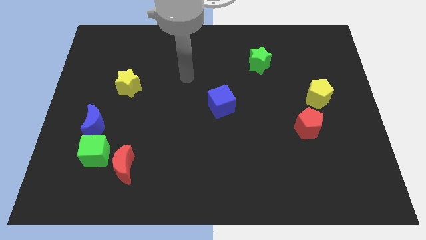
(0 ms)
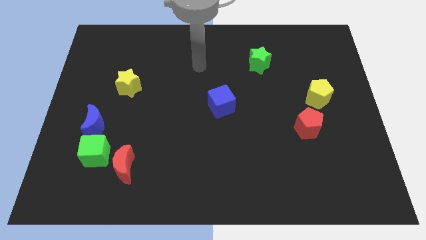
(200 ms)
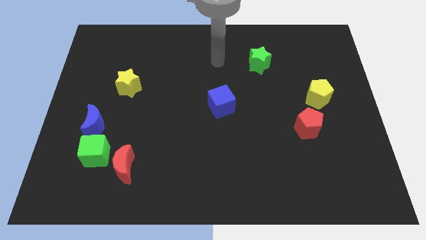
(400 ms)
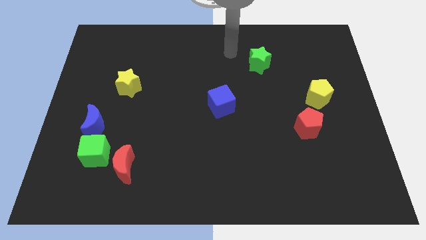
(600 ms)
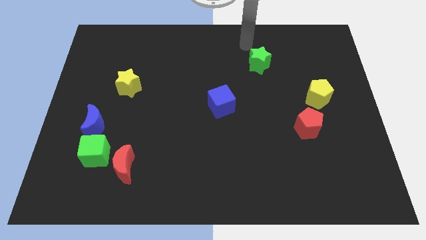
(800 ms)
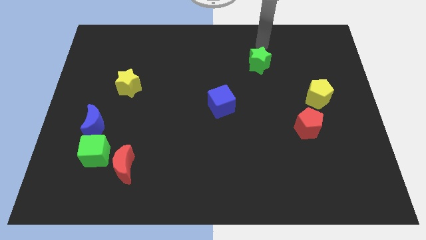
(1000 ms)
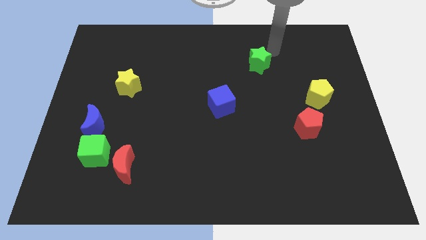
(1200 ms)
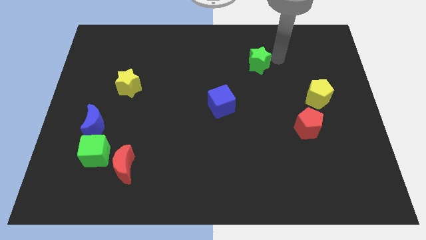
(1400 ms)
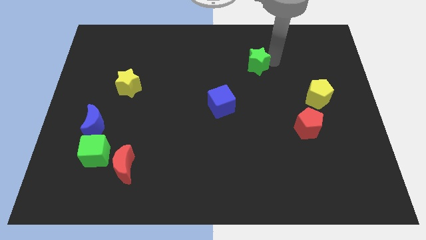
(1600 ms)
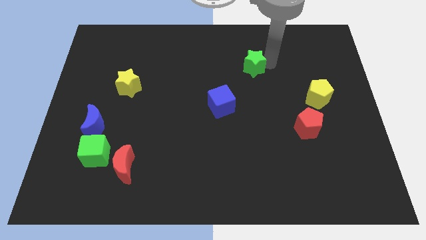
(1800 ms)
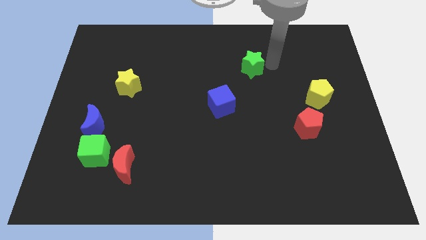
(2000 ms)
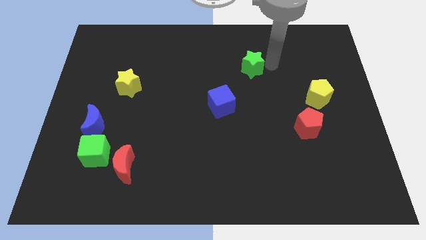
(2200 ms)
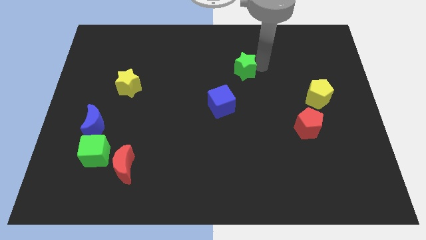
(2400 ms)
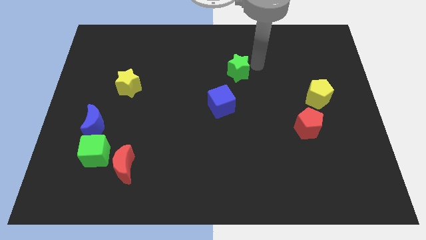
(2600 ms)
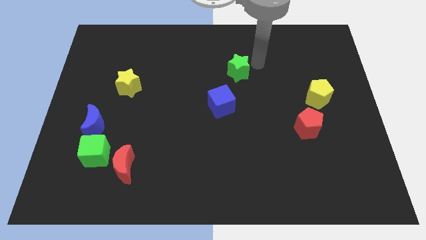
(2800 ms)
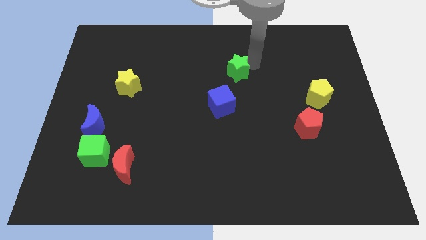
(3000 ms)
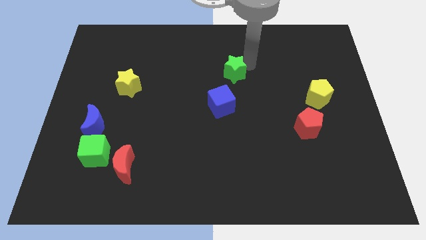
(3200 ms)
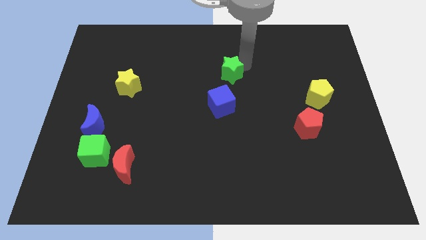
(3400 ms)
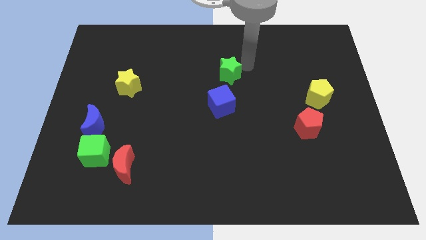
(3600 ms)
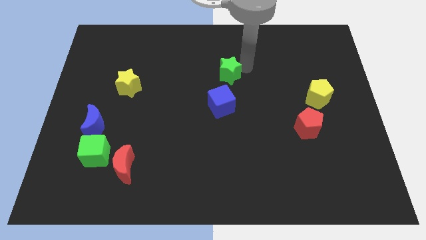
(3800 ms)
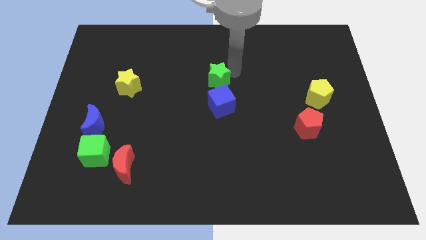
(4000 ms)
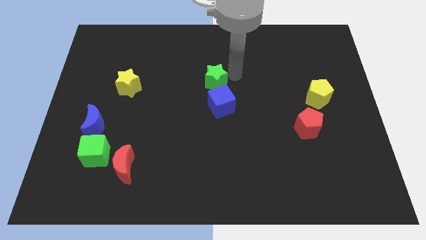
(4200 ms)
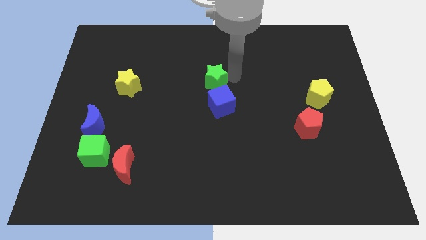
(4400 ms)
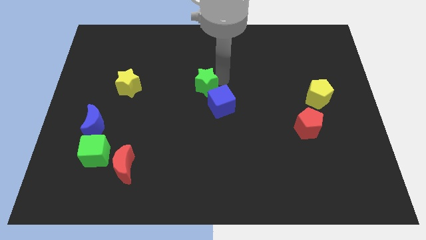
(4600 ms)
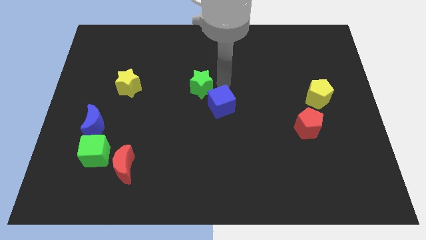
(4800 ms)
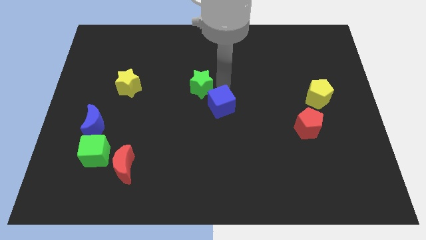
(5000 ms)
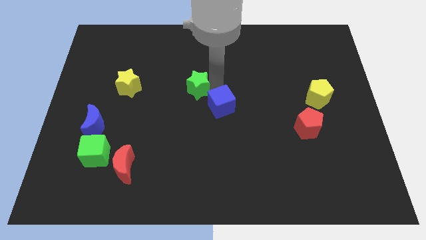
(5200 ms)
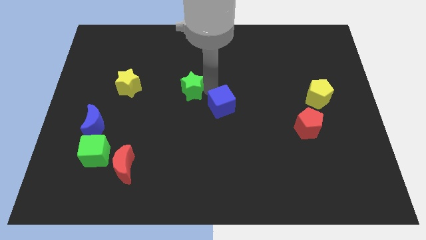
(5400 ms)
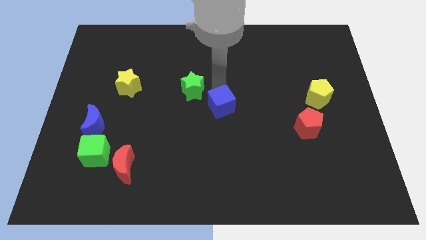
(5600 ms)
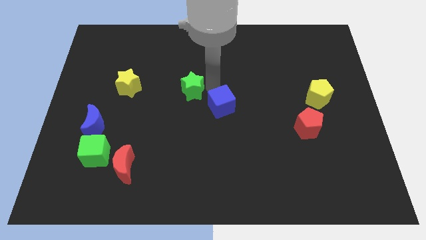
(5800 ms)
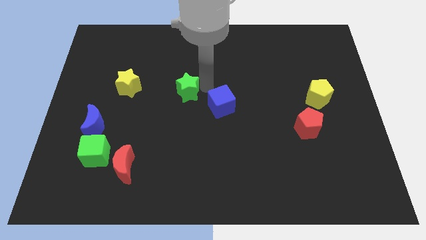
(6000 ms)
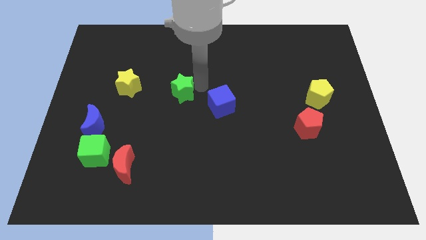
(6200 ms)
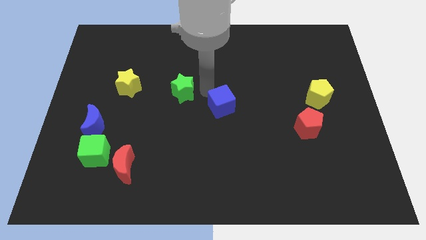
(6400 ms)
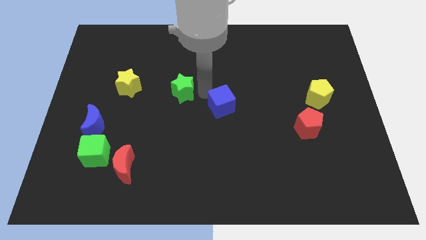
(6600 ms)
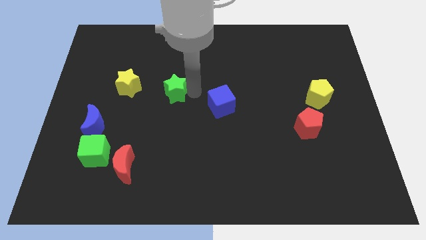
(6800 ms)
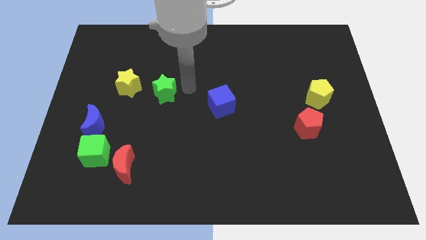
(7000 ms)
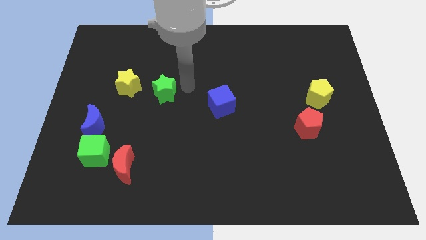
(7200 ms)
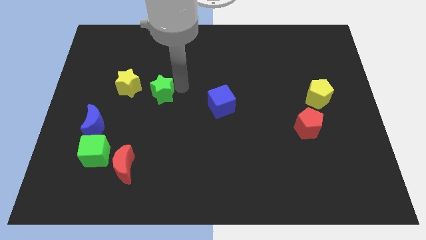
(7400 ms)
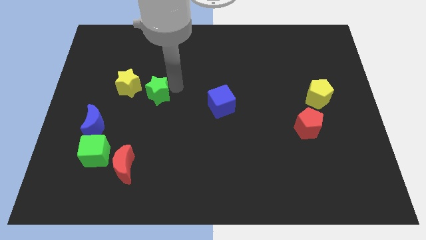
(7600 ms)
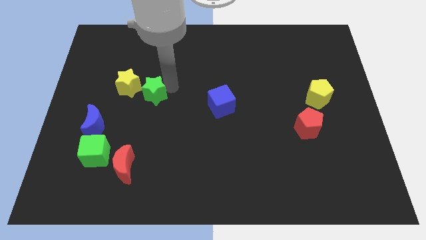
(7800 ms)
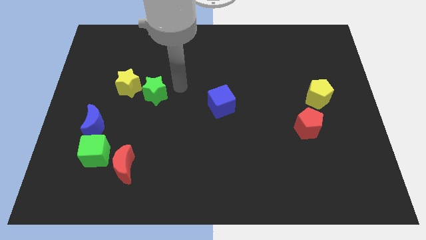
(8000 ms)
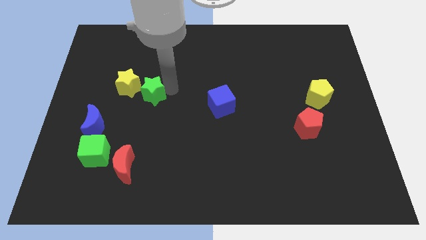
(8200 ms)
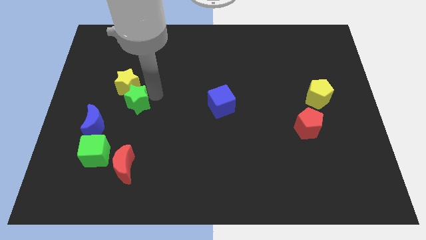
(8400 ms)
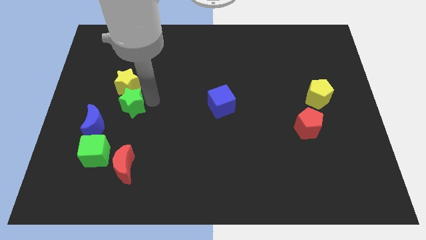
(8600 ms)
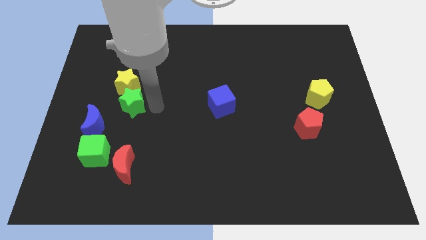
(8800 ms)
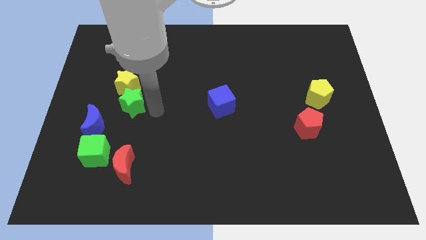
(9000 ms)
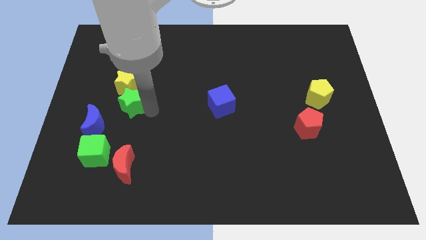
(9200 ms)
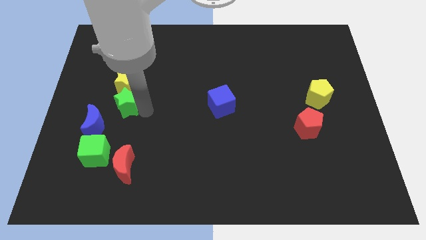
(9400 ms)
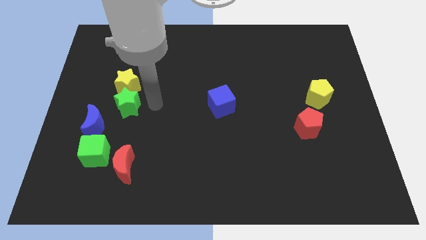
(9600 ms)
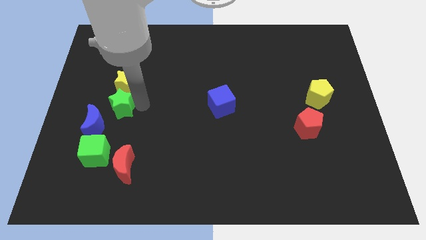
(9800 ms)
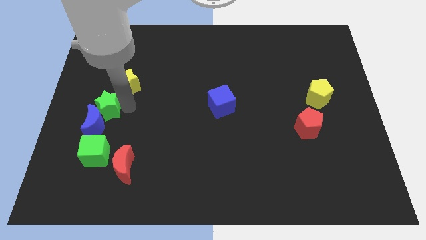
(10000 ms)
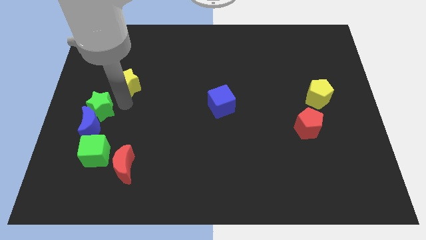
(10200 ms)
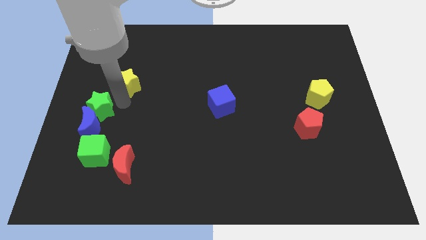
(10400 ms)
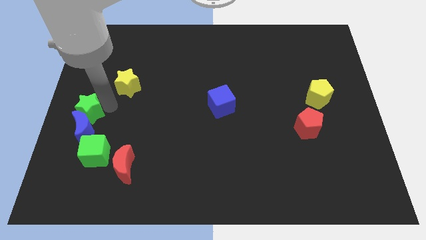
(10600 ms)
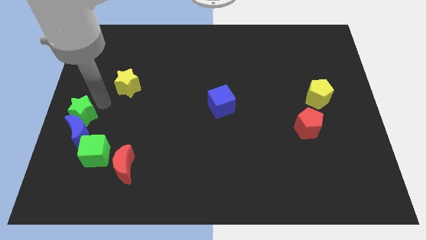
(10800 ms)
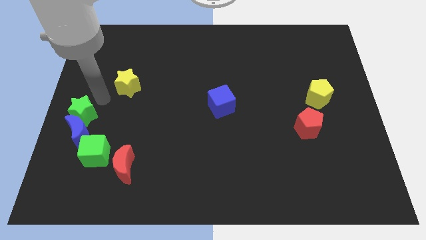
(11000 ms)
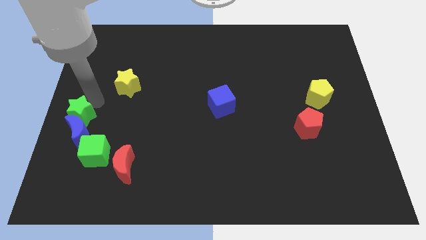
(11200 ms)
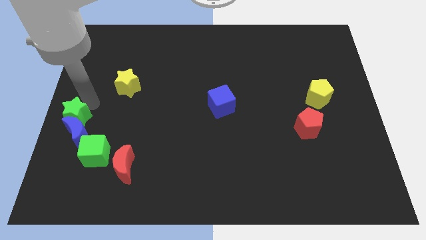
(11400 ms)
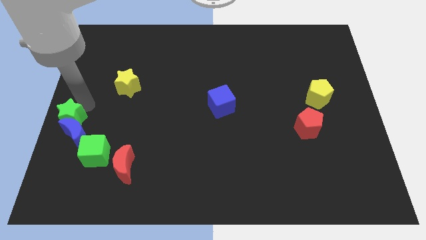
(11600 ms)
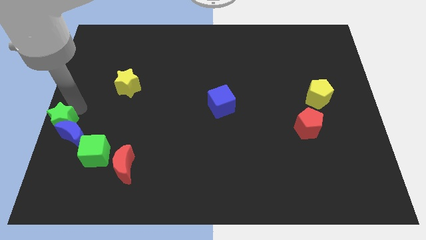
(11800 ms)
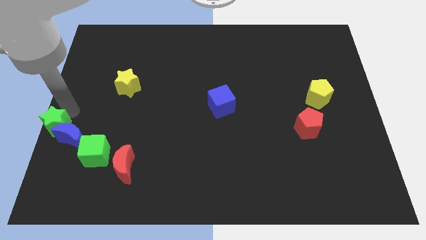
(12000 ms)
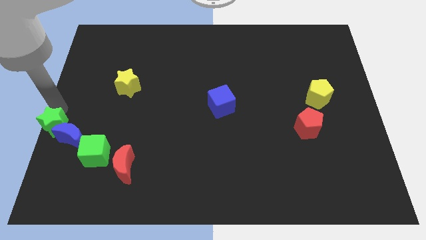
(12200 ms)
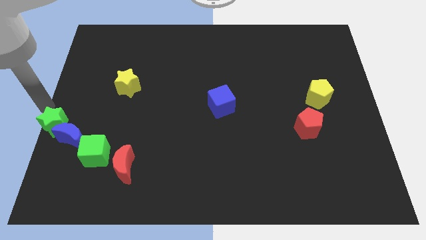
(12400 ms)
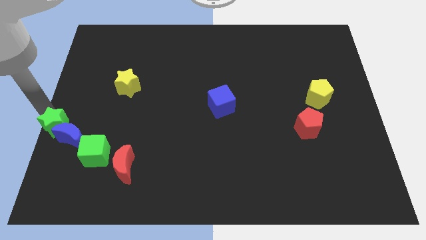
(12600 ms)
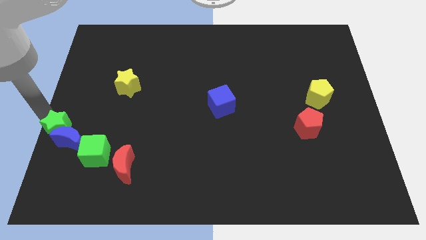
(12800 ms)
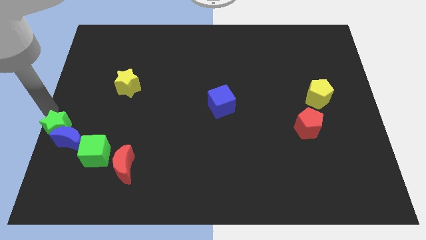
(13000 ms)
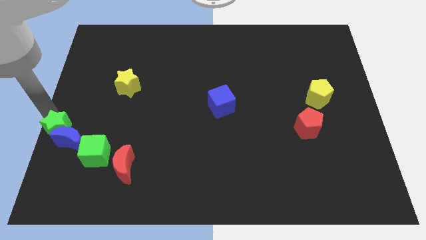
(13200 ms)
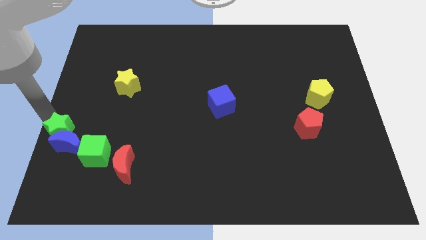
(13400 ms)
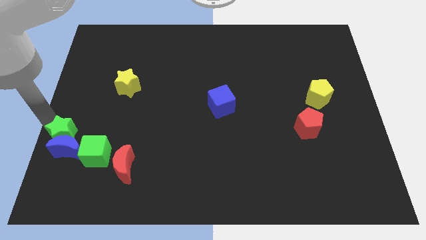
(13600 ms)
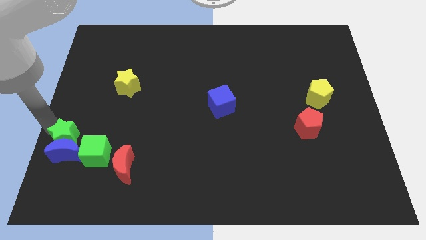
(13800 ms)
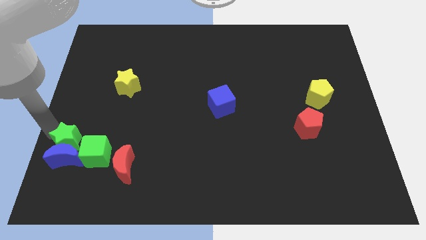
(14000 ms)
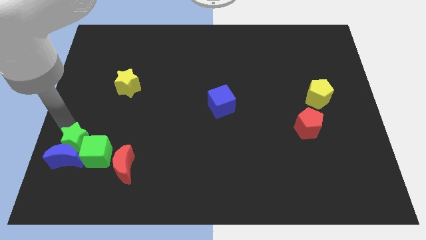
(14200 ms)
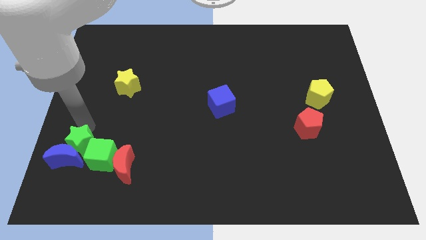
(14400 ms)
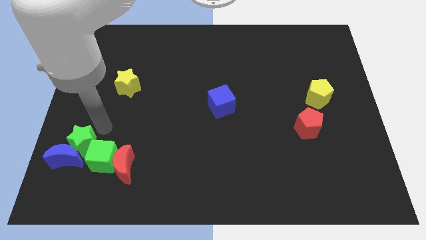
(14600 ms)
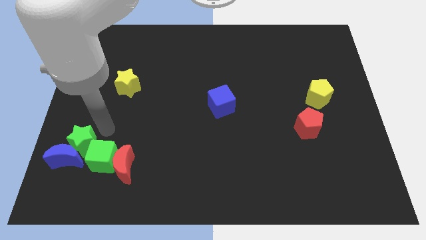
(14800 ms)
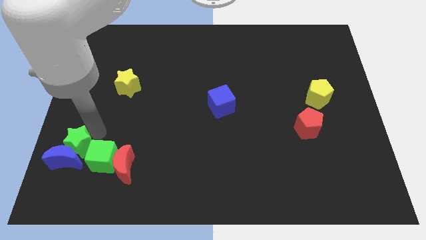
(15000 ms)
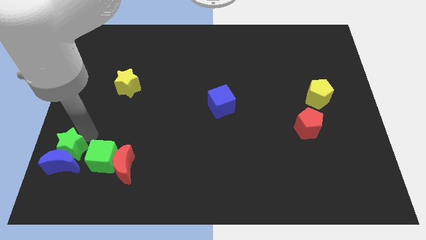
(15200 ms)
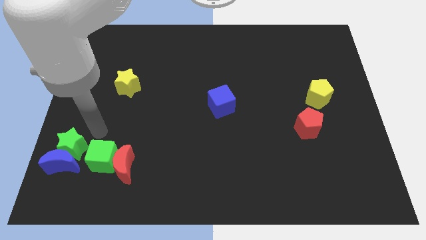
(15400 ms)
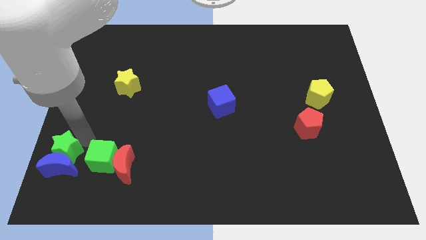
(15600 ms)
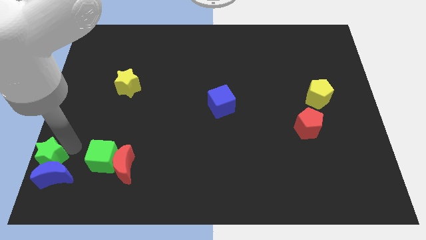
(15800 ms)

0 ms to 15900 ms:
push the green star to the bottom left of the board
